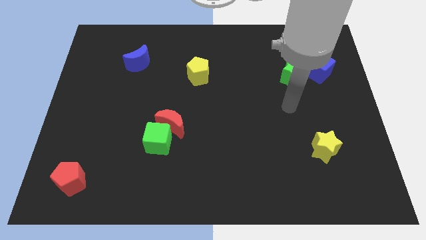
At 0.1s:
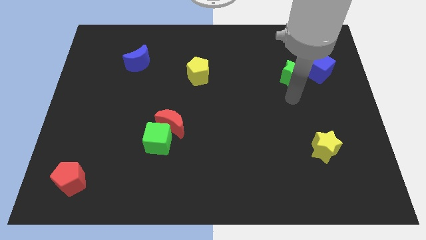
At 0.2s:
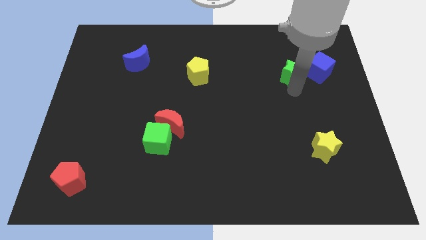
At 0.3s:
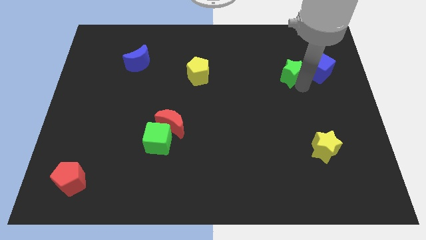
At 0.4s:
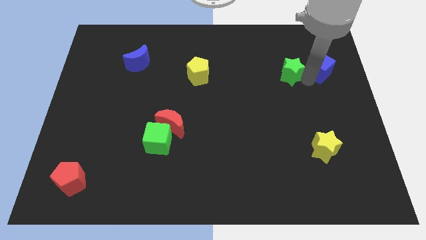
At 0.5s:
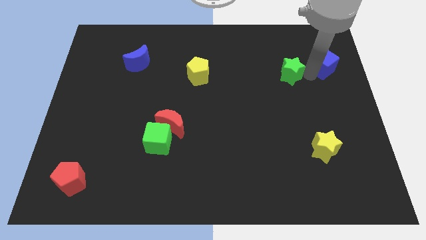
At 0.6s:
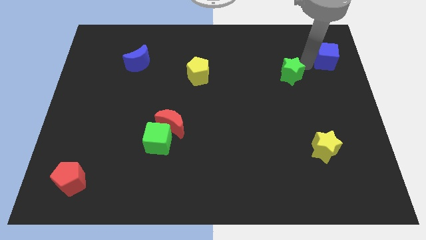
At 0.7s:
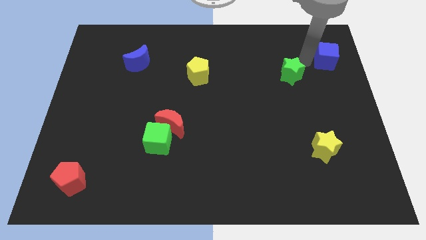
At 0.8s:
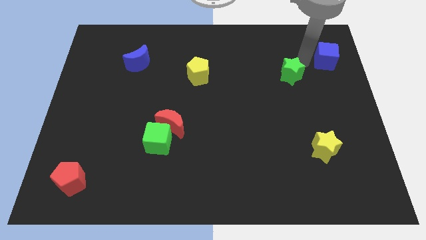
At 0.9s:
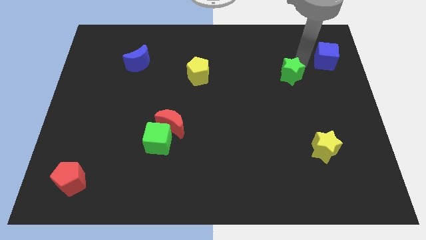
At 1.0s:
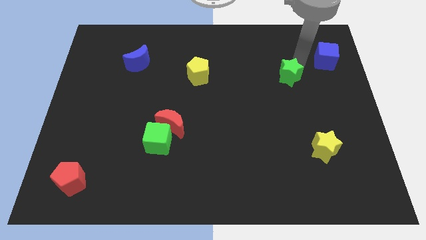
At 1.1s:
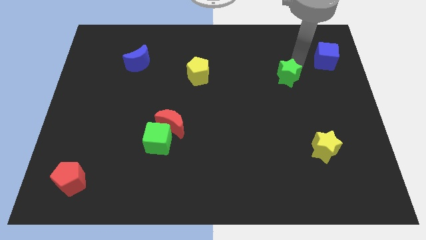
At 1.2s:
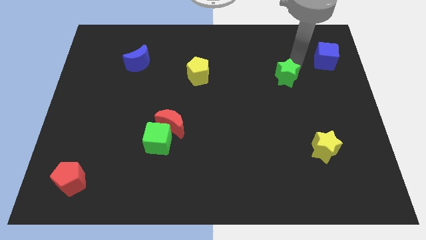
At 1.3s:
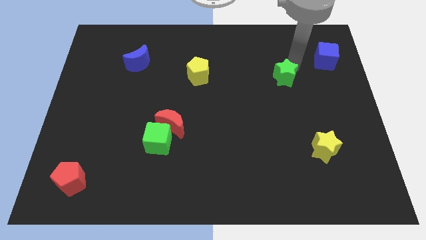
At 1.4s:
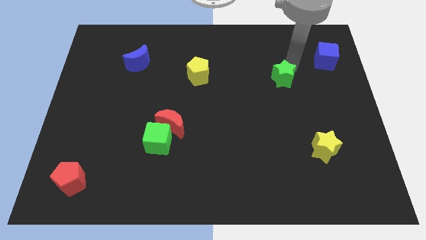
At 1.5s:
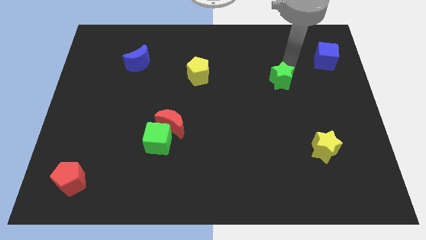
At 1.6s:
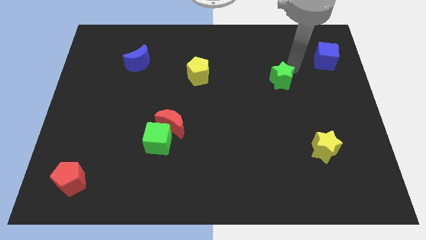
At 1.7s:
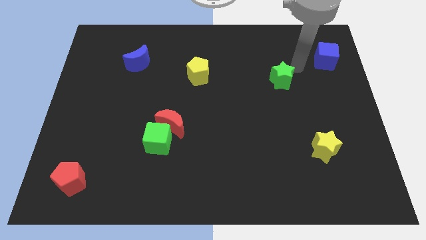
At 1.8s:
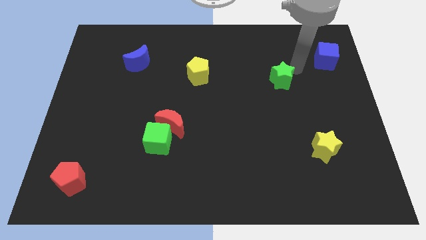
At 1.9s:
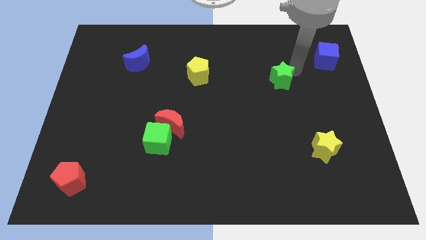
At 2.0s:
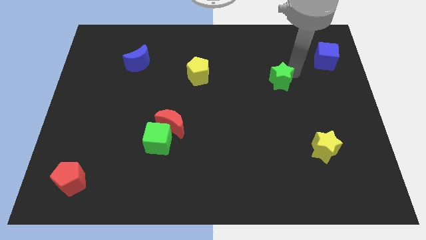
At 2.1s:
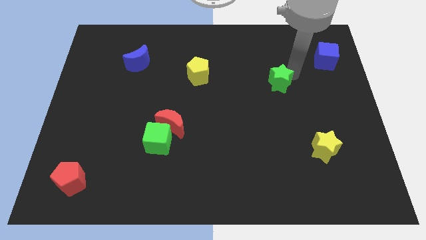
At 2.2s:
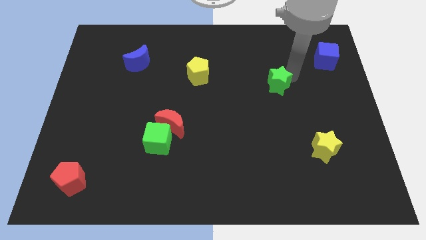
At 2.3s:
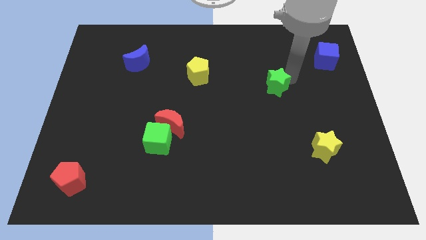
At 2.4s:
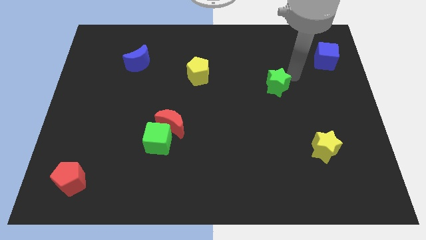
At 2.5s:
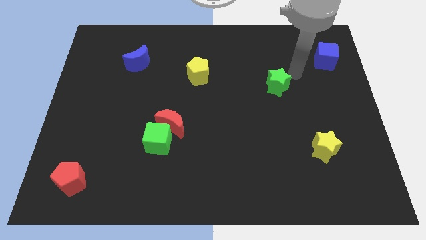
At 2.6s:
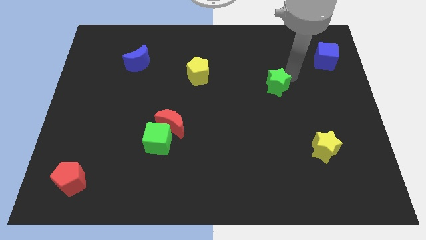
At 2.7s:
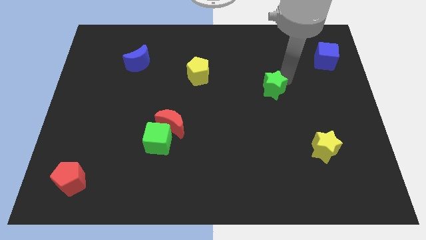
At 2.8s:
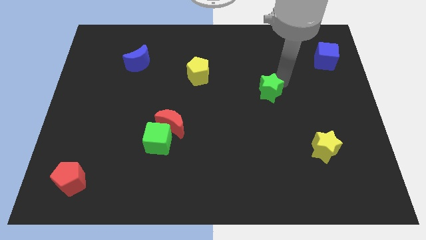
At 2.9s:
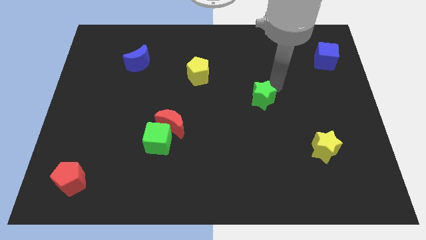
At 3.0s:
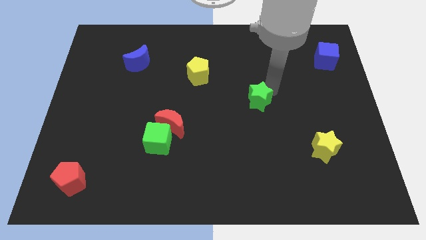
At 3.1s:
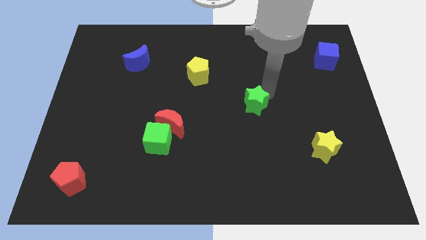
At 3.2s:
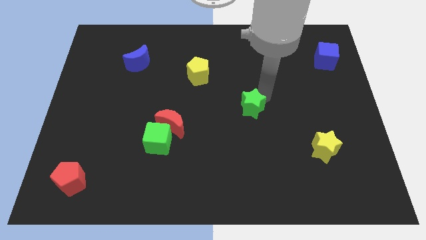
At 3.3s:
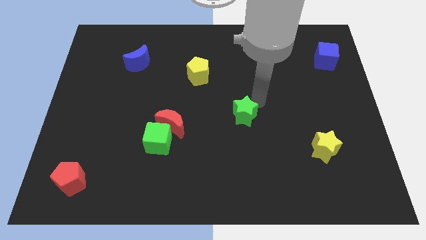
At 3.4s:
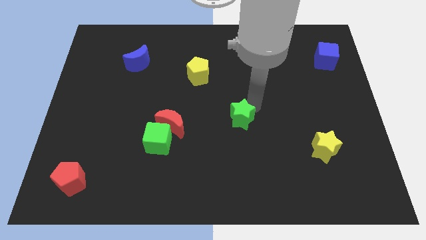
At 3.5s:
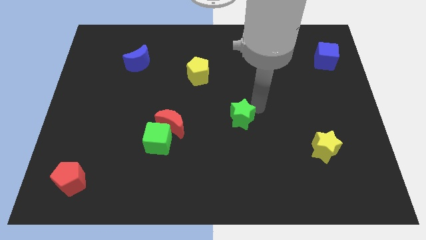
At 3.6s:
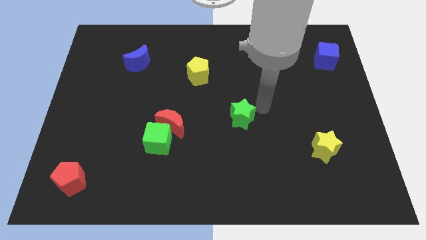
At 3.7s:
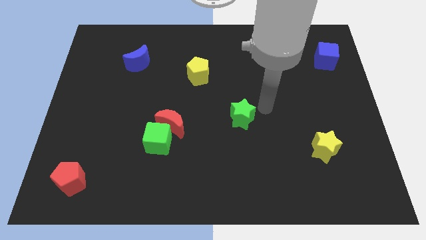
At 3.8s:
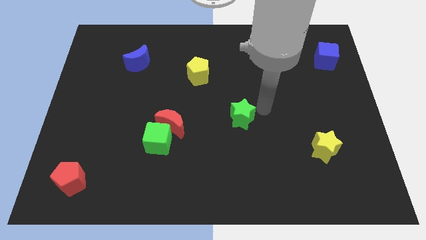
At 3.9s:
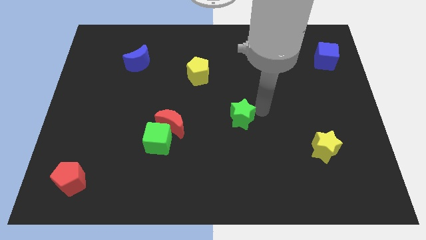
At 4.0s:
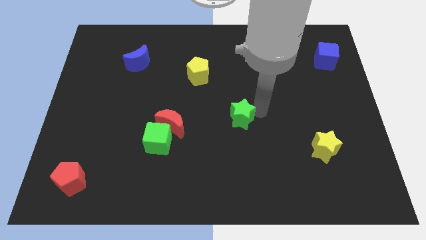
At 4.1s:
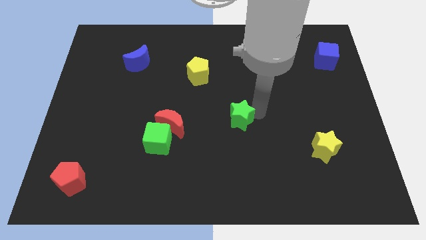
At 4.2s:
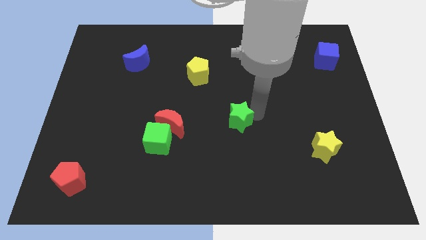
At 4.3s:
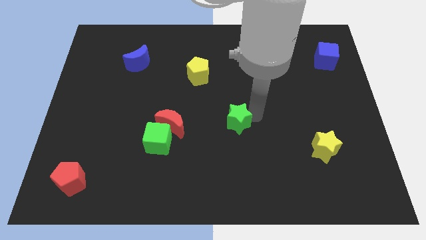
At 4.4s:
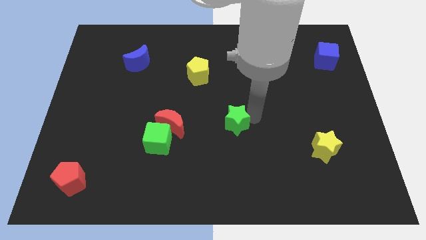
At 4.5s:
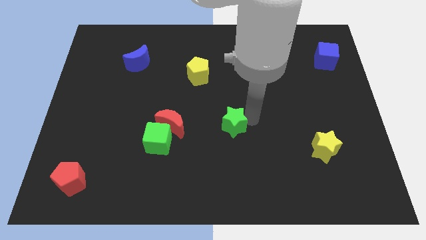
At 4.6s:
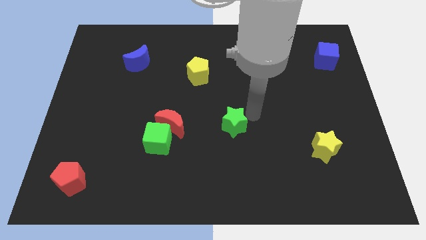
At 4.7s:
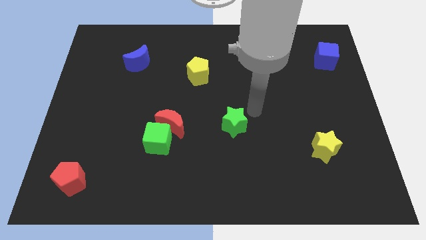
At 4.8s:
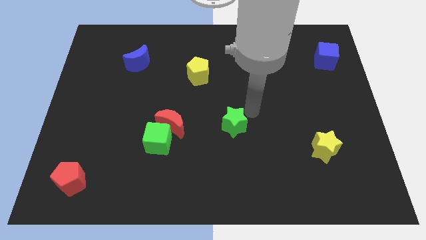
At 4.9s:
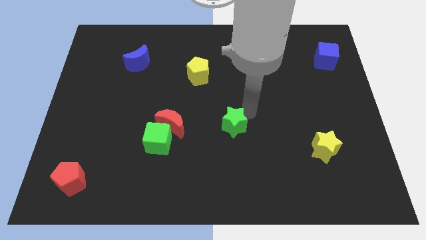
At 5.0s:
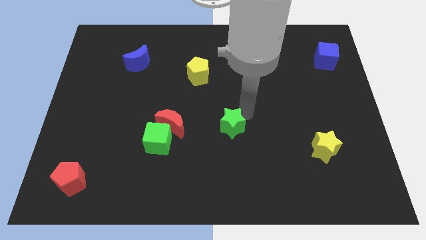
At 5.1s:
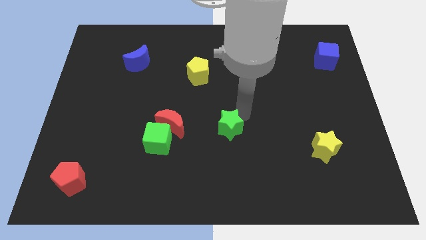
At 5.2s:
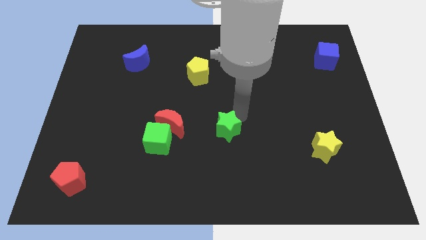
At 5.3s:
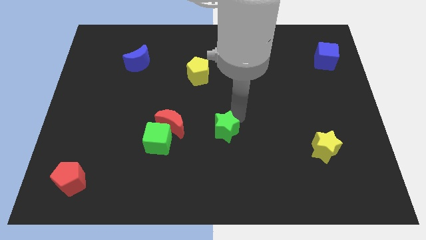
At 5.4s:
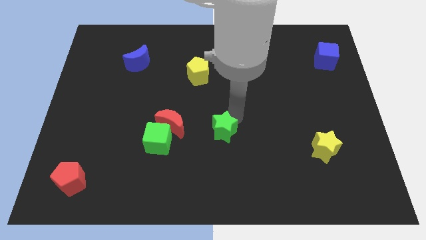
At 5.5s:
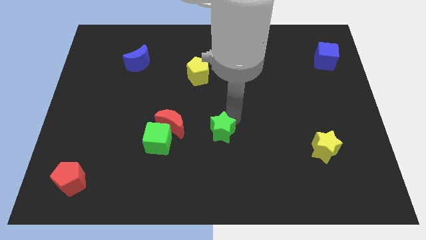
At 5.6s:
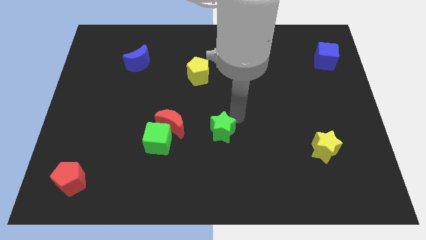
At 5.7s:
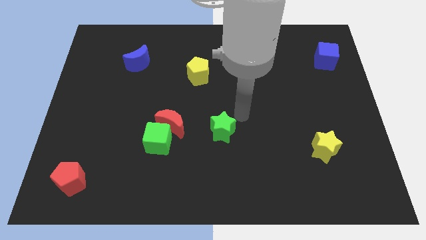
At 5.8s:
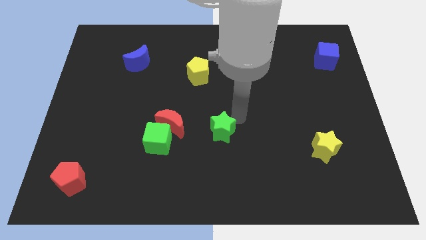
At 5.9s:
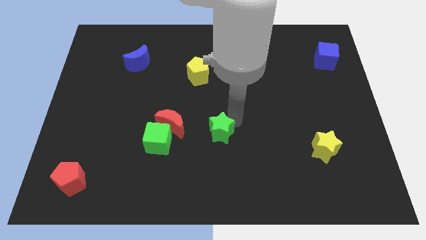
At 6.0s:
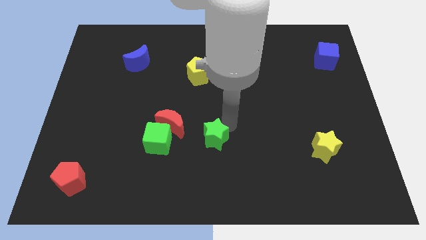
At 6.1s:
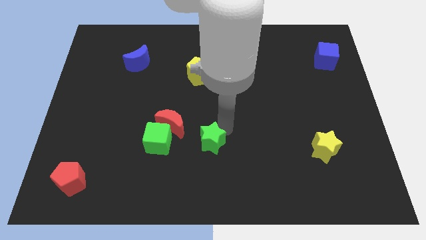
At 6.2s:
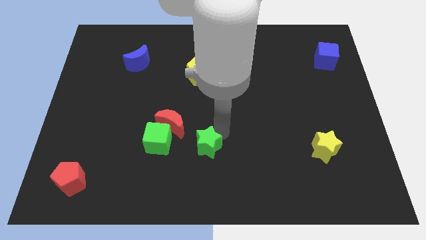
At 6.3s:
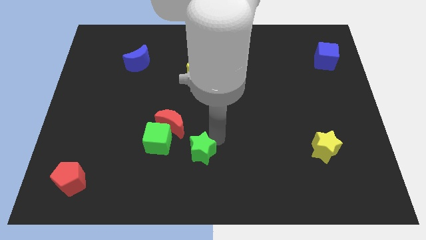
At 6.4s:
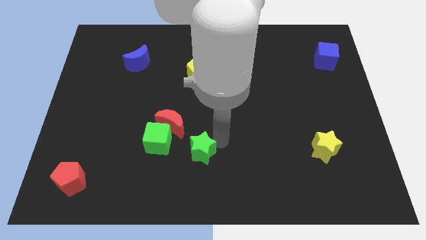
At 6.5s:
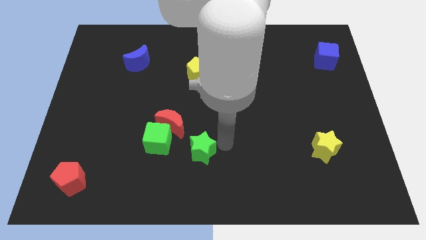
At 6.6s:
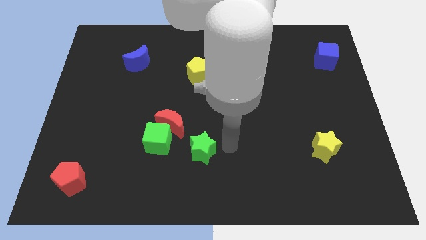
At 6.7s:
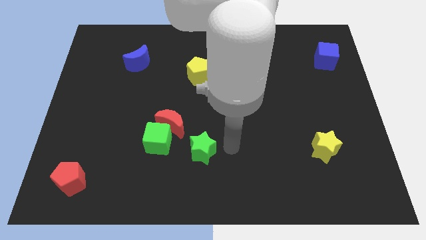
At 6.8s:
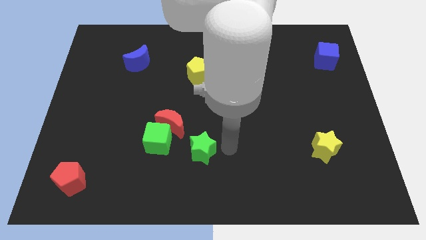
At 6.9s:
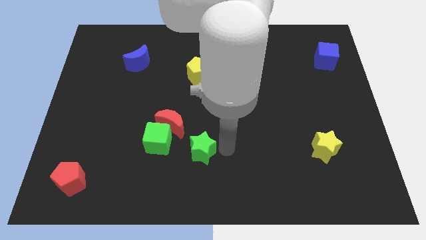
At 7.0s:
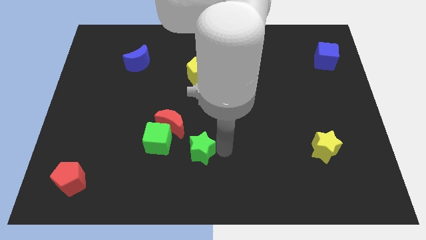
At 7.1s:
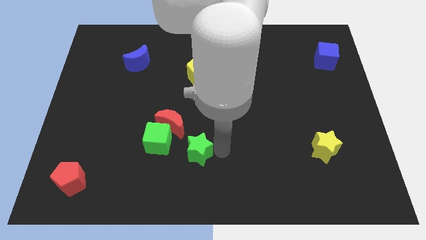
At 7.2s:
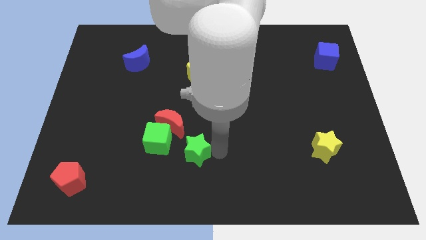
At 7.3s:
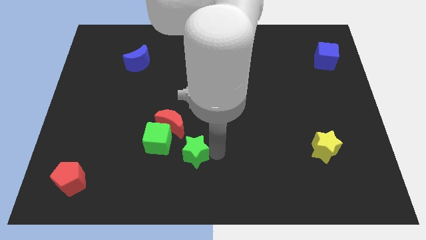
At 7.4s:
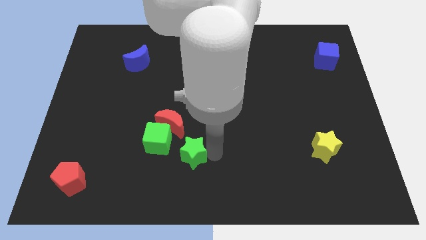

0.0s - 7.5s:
move the green star below the red moon
